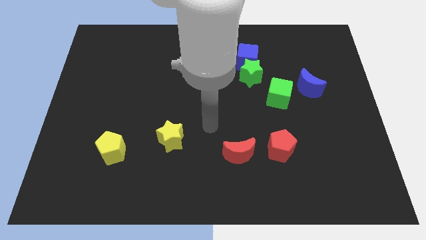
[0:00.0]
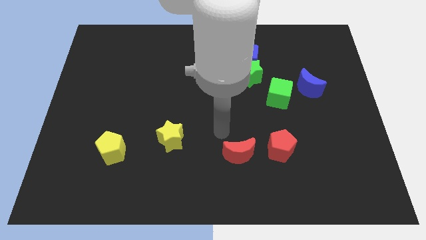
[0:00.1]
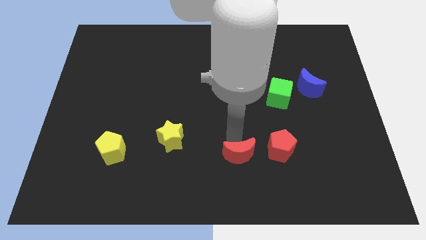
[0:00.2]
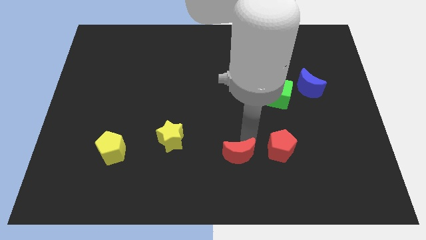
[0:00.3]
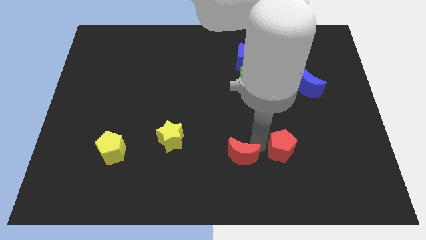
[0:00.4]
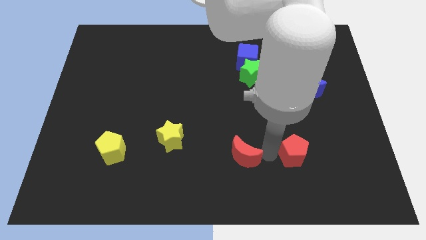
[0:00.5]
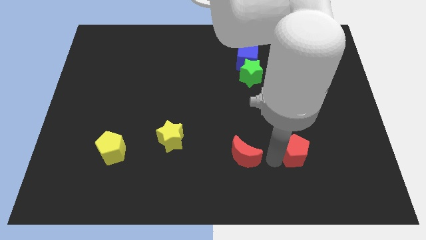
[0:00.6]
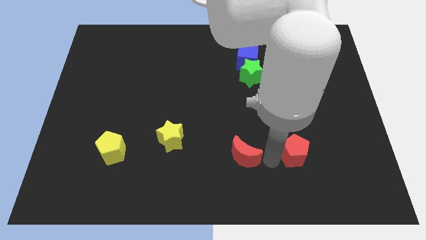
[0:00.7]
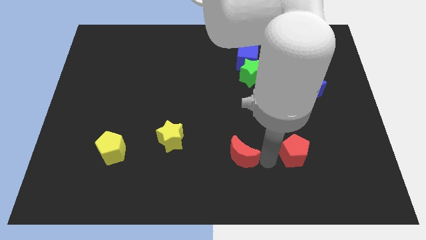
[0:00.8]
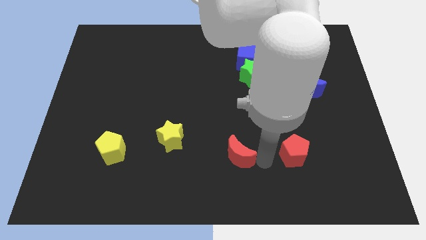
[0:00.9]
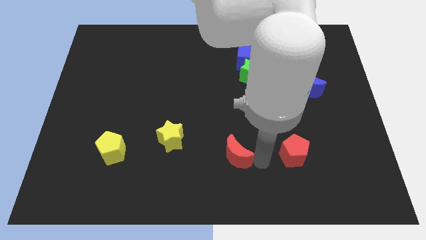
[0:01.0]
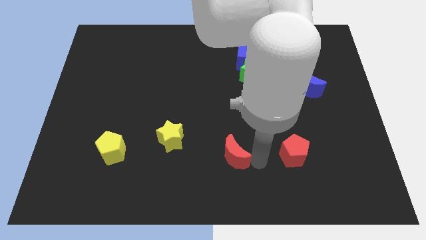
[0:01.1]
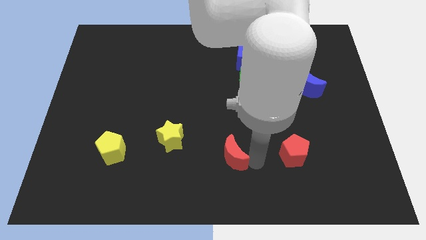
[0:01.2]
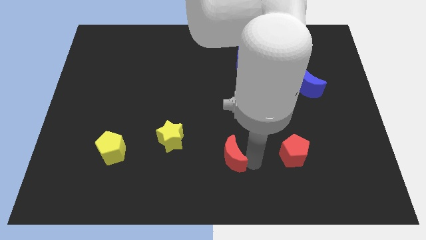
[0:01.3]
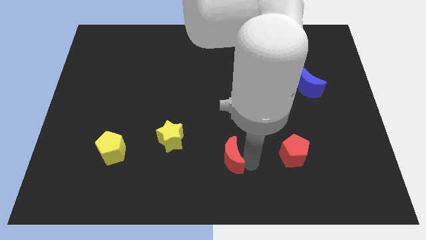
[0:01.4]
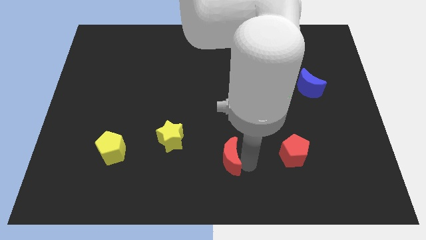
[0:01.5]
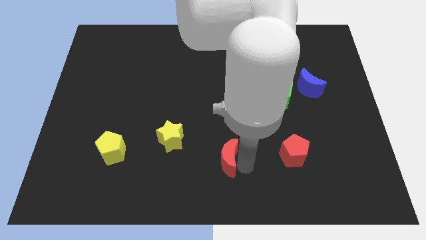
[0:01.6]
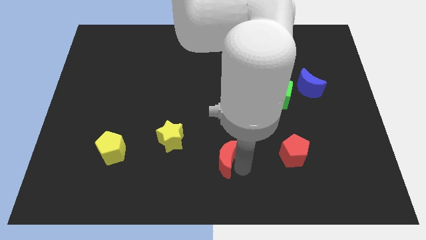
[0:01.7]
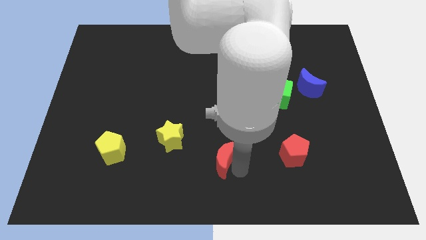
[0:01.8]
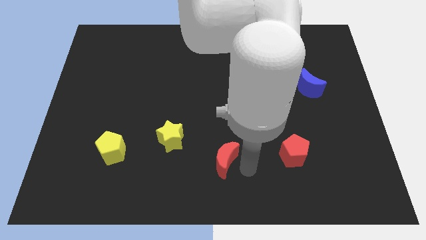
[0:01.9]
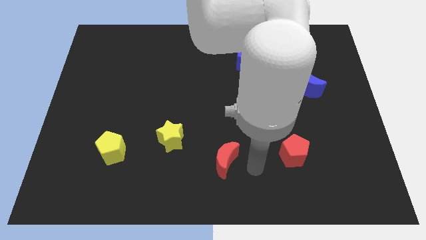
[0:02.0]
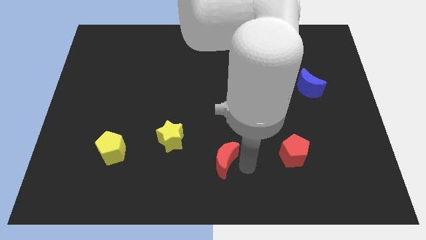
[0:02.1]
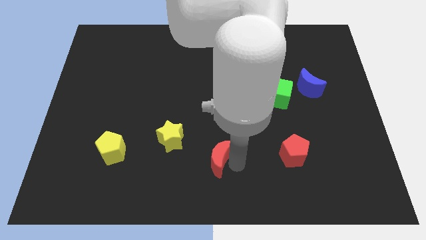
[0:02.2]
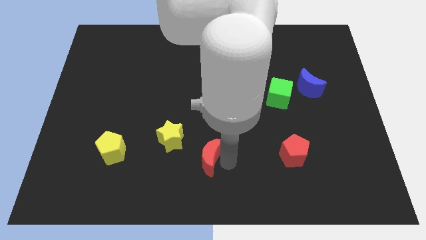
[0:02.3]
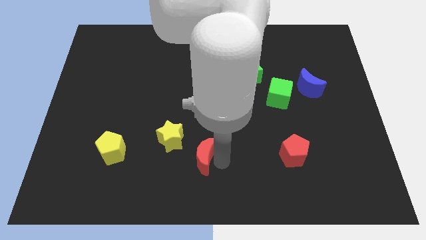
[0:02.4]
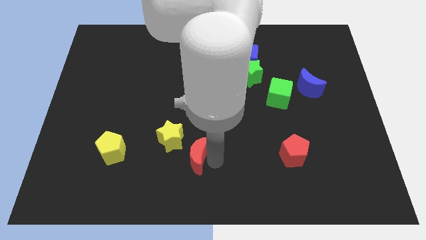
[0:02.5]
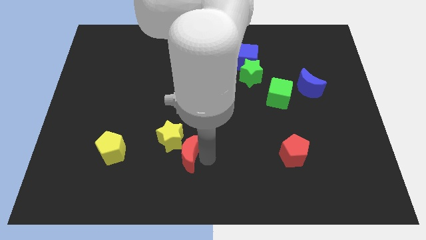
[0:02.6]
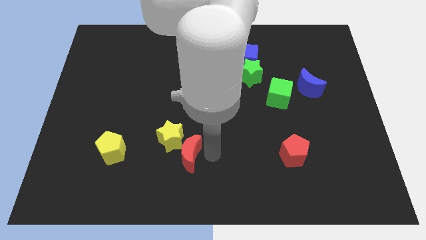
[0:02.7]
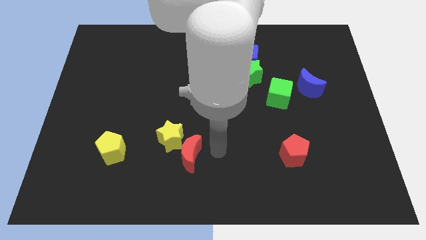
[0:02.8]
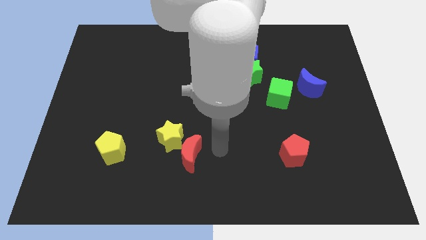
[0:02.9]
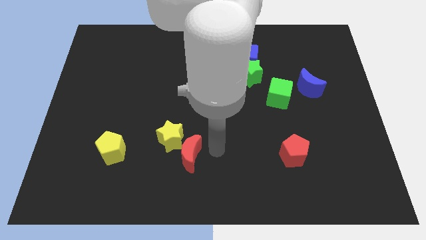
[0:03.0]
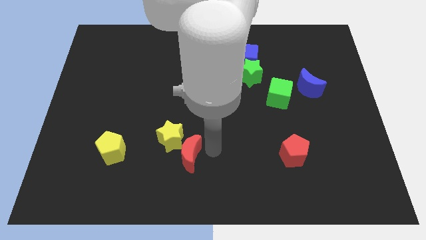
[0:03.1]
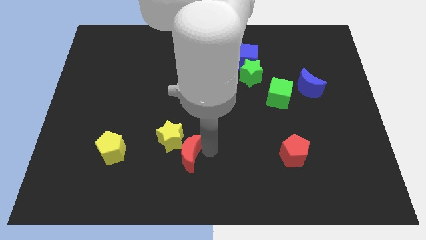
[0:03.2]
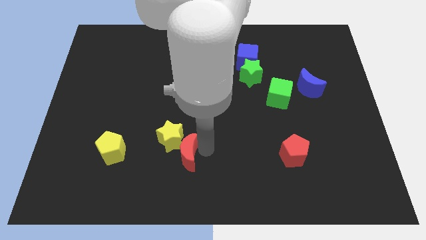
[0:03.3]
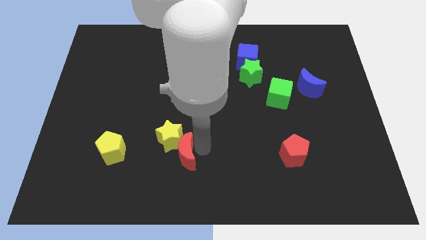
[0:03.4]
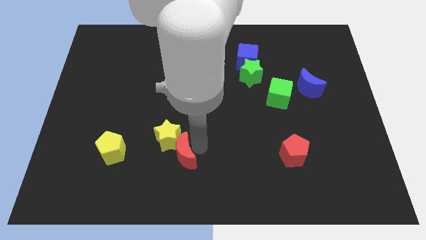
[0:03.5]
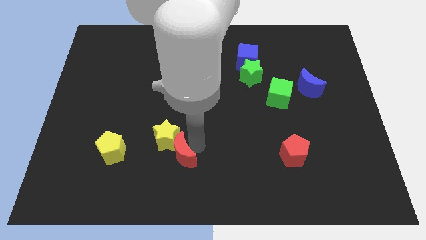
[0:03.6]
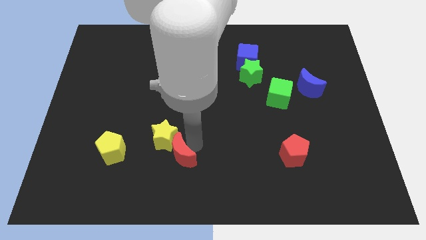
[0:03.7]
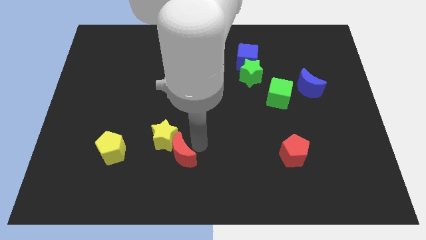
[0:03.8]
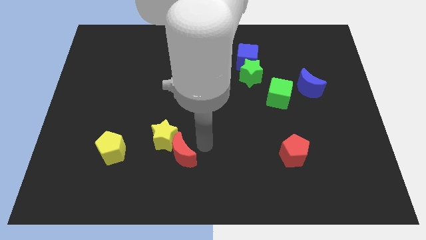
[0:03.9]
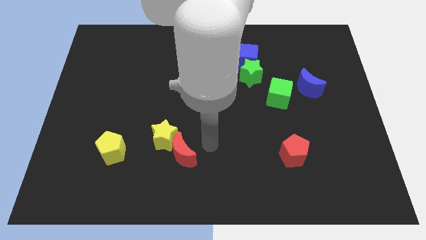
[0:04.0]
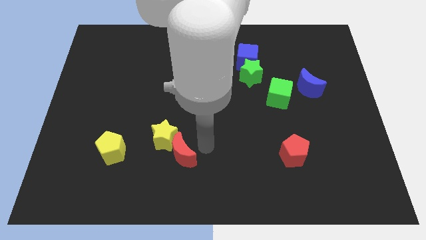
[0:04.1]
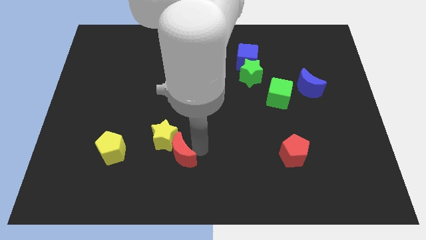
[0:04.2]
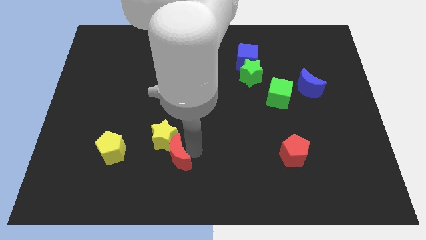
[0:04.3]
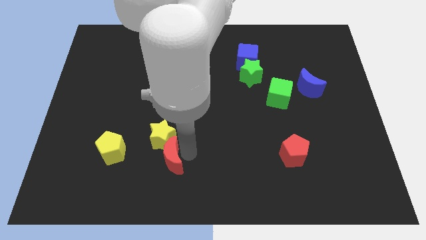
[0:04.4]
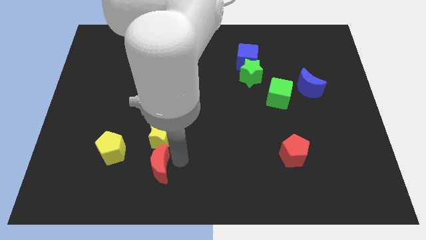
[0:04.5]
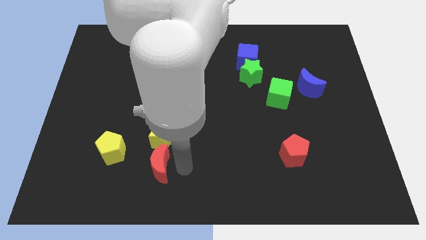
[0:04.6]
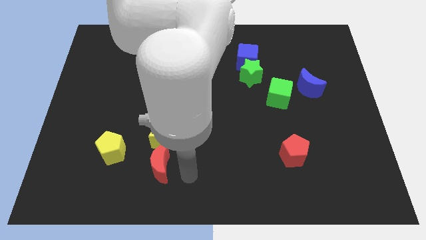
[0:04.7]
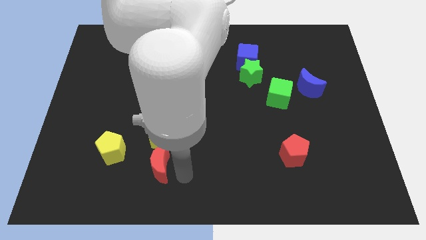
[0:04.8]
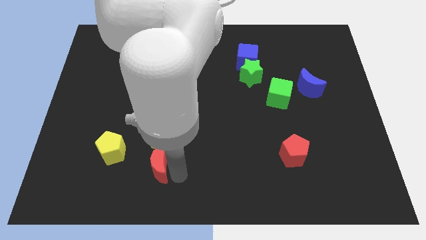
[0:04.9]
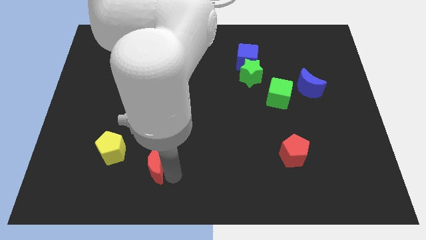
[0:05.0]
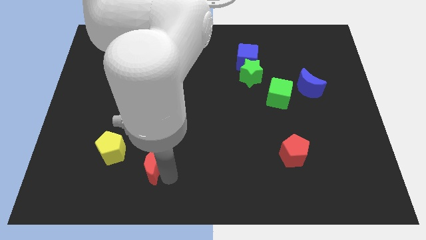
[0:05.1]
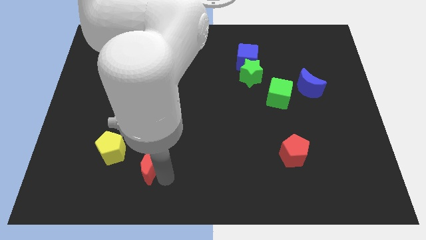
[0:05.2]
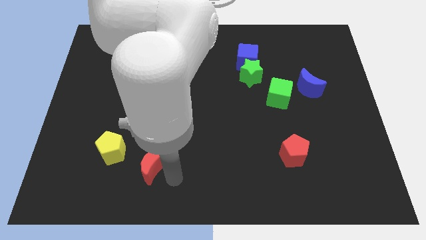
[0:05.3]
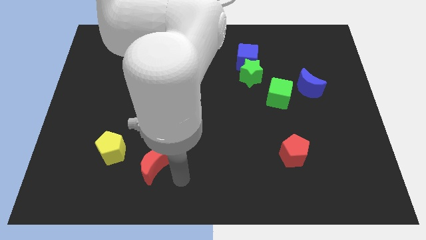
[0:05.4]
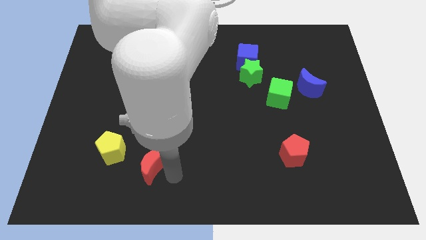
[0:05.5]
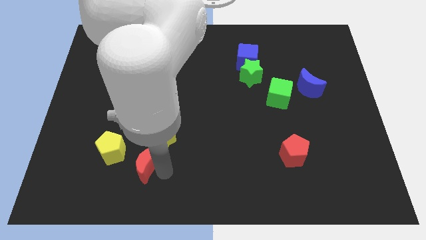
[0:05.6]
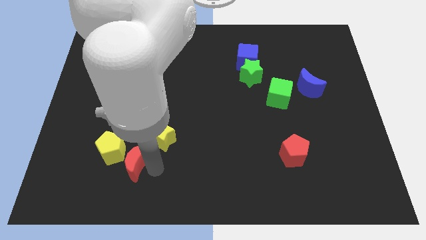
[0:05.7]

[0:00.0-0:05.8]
push the red moon close to the yellow pentagon

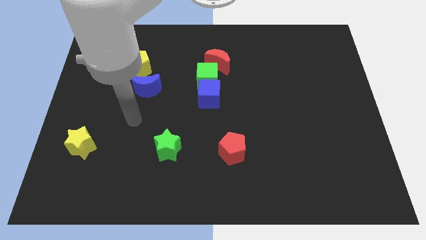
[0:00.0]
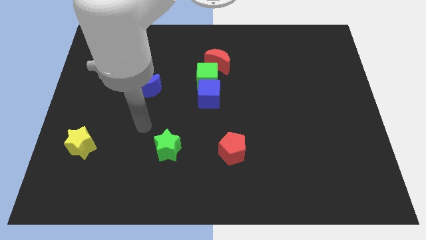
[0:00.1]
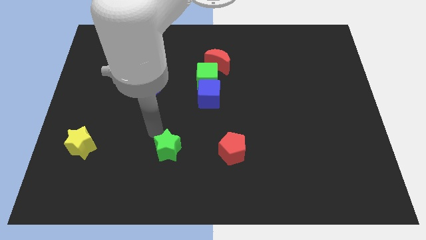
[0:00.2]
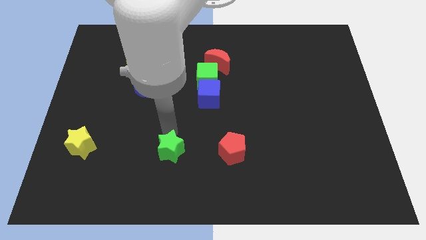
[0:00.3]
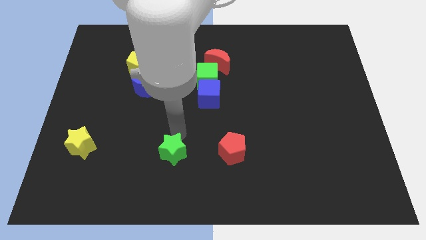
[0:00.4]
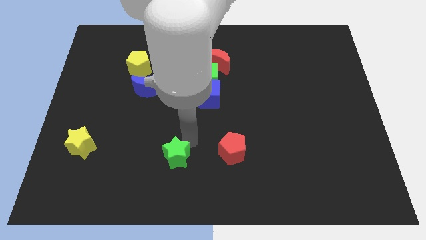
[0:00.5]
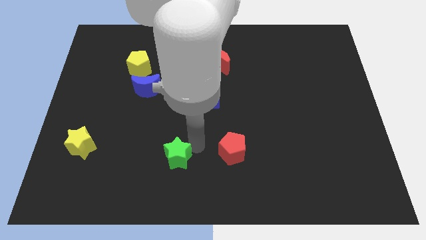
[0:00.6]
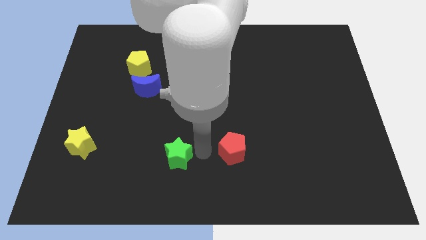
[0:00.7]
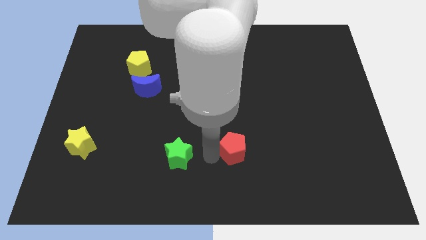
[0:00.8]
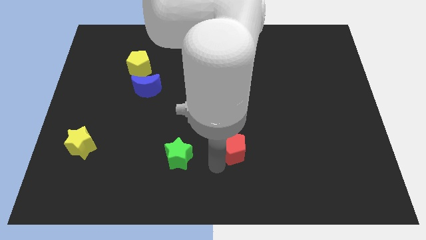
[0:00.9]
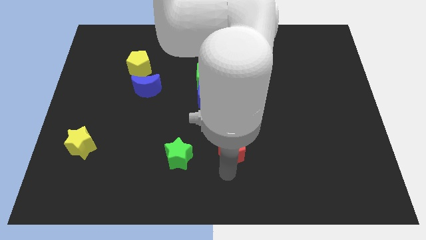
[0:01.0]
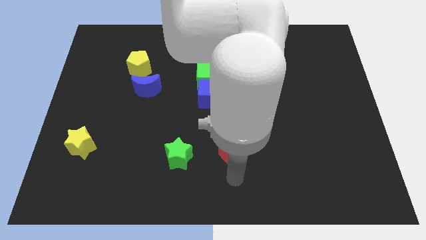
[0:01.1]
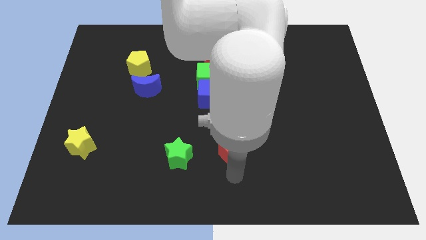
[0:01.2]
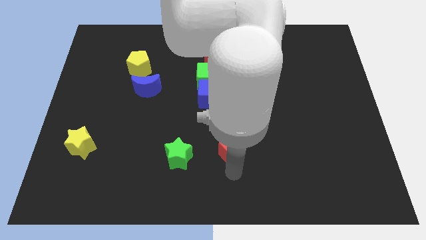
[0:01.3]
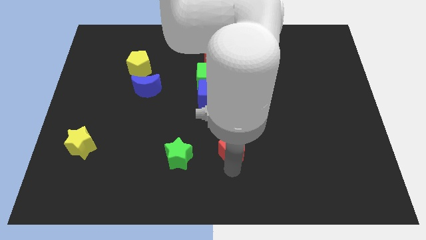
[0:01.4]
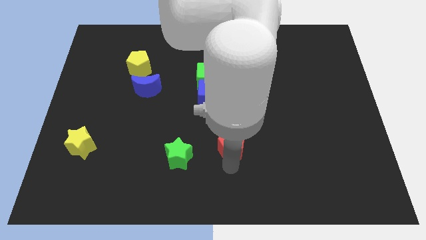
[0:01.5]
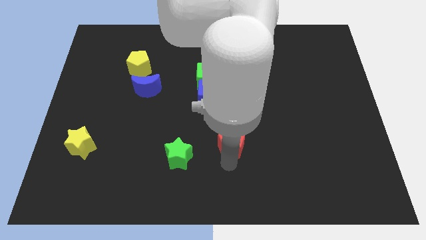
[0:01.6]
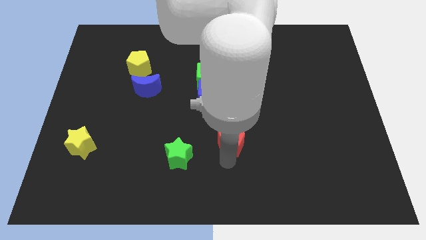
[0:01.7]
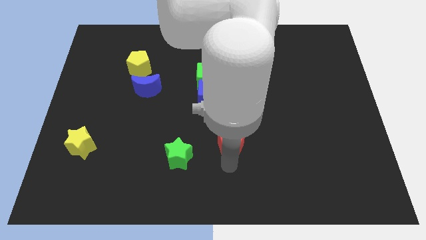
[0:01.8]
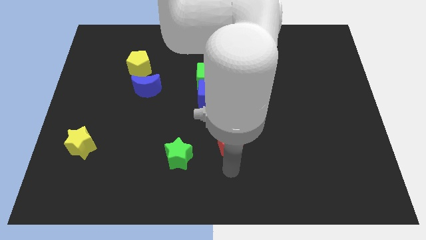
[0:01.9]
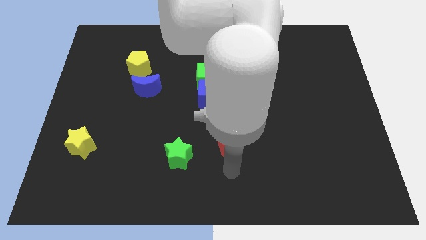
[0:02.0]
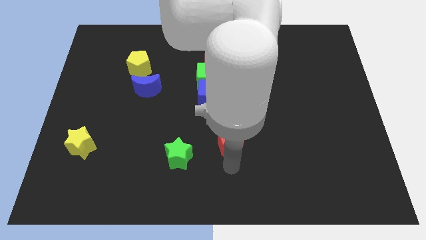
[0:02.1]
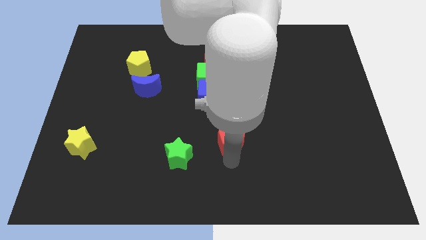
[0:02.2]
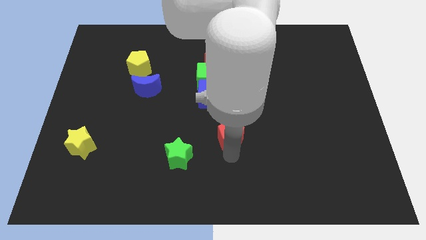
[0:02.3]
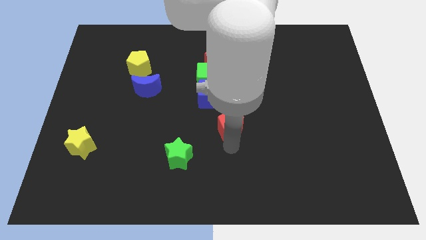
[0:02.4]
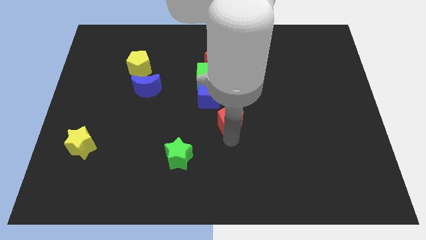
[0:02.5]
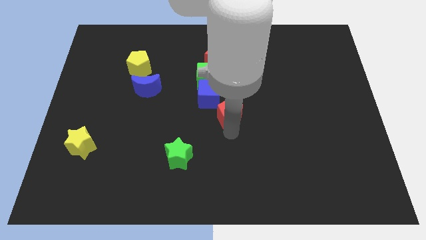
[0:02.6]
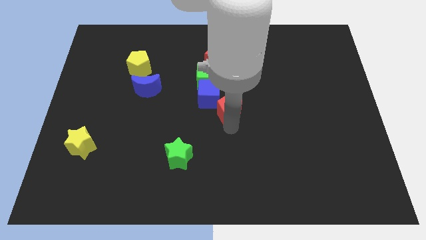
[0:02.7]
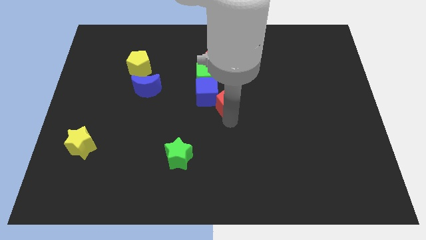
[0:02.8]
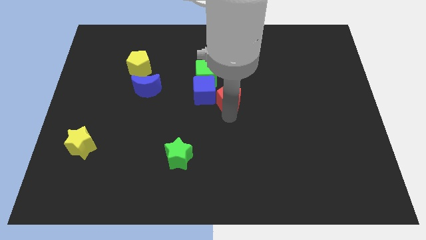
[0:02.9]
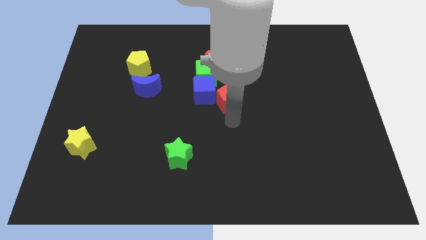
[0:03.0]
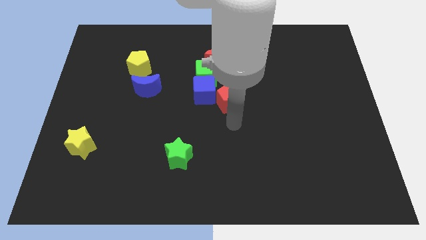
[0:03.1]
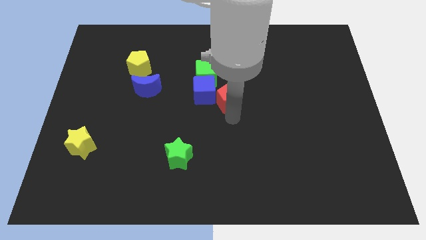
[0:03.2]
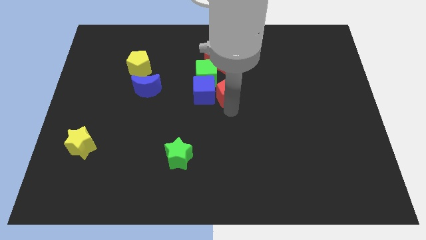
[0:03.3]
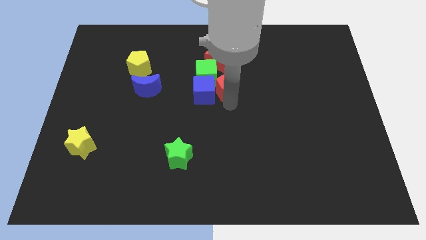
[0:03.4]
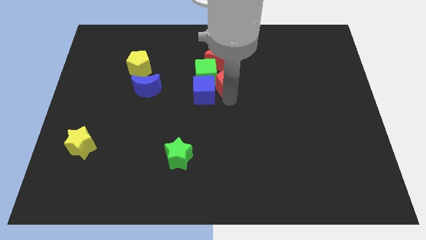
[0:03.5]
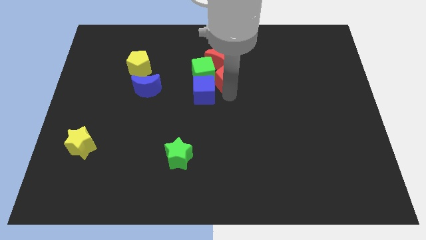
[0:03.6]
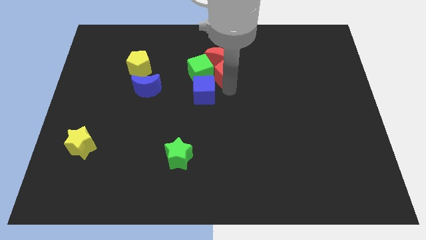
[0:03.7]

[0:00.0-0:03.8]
slide the red pentagon to the red moon
